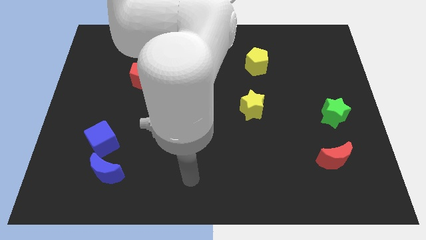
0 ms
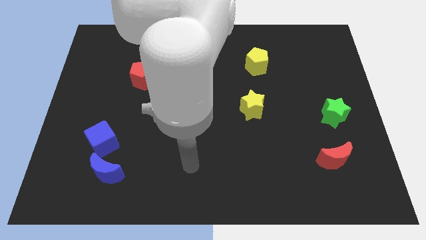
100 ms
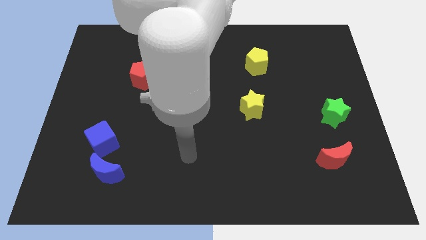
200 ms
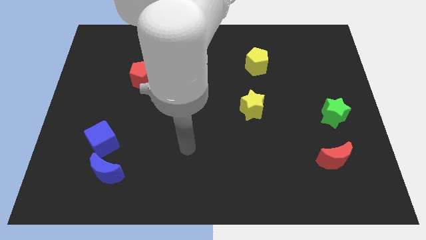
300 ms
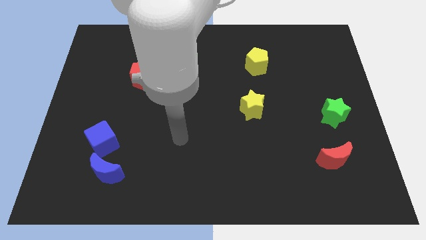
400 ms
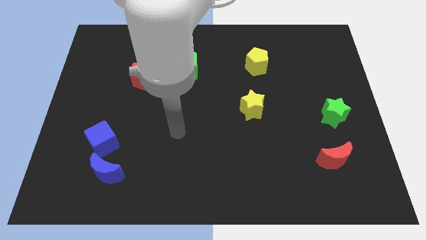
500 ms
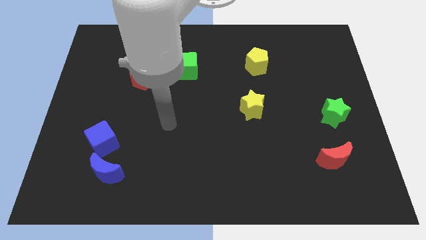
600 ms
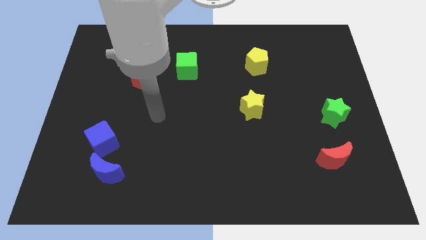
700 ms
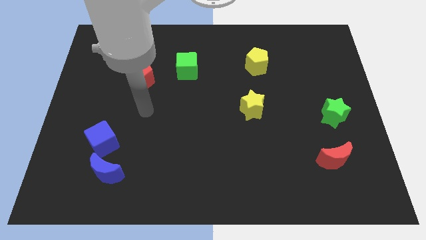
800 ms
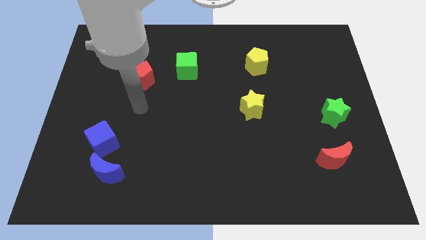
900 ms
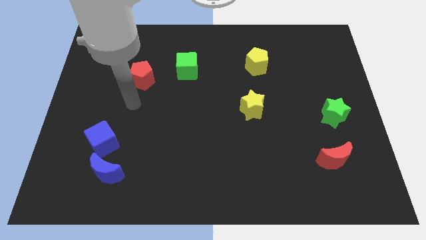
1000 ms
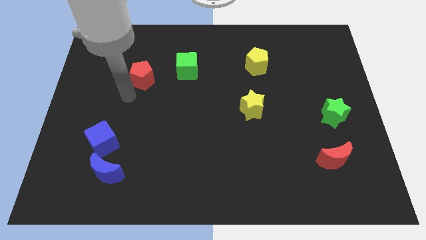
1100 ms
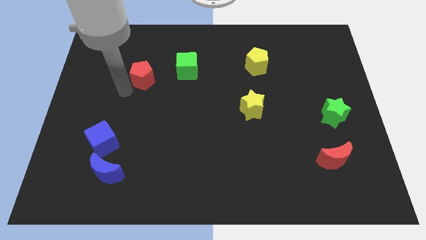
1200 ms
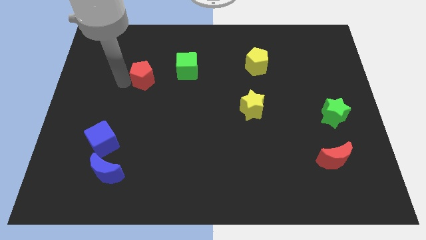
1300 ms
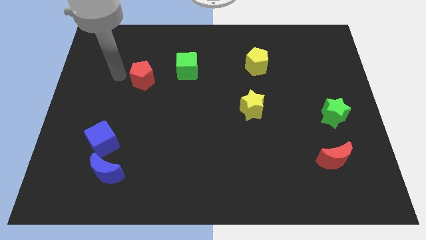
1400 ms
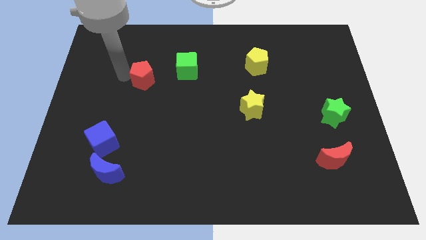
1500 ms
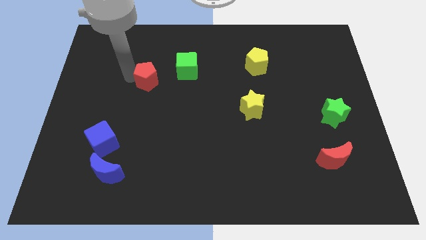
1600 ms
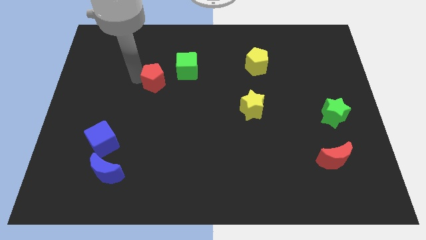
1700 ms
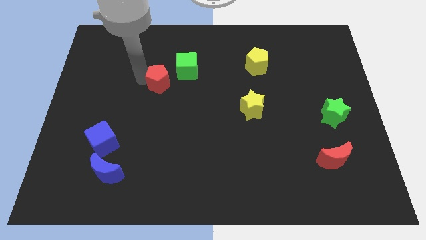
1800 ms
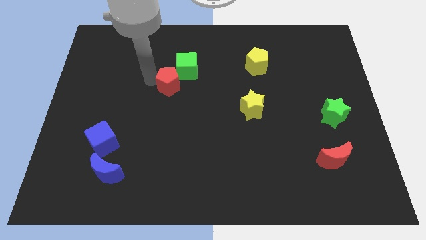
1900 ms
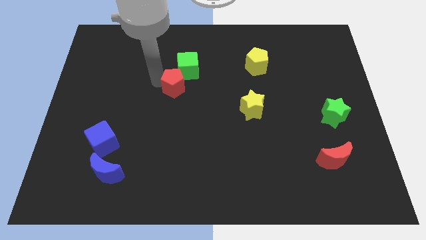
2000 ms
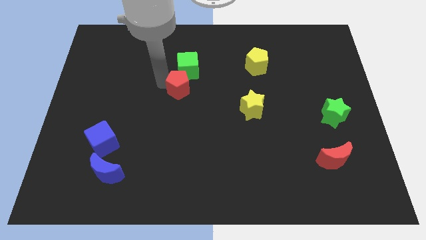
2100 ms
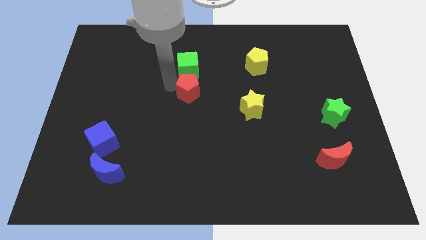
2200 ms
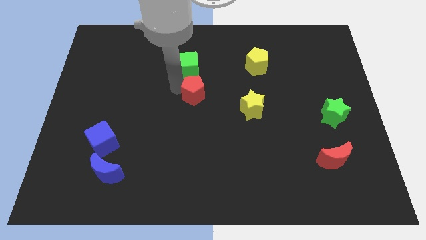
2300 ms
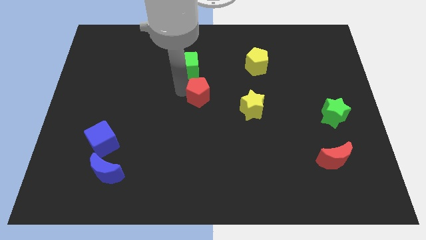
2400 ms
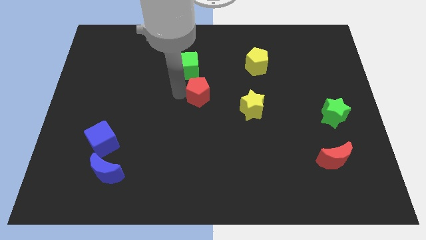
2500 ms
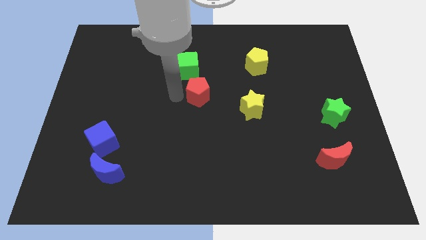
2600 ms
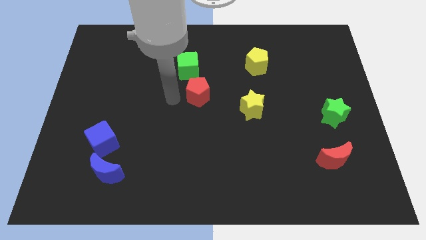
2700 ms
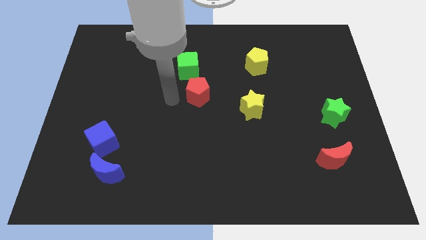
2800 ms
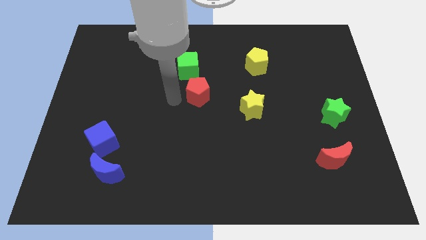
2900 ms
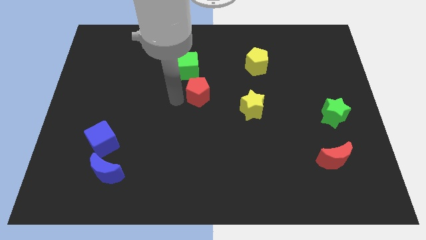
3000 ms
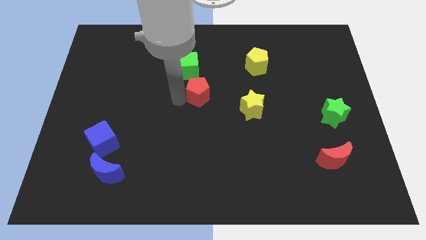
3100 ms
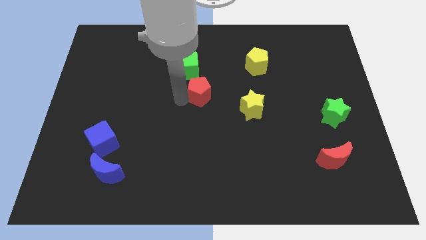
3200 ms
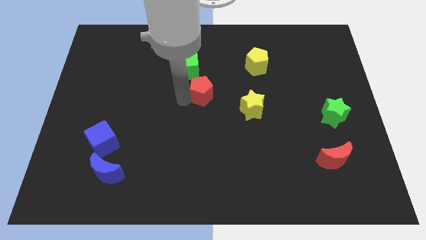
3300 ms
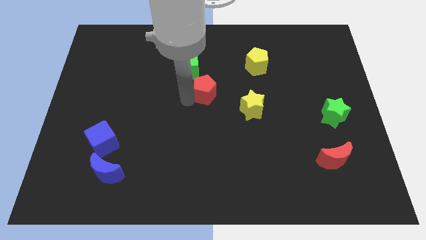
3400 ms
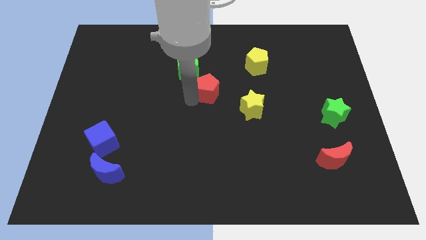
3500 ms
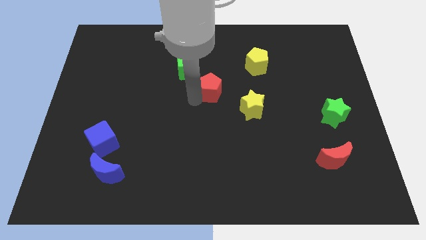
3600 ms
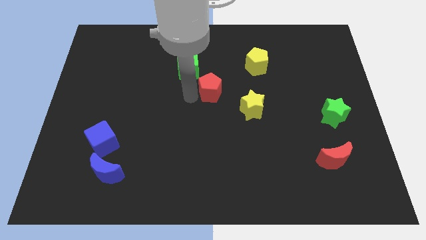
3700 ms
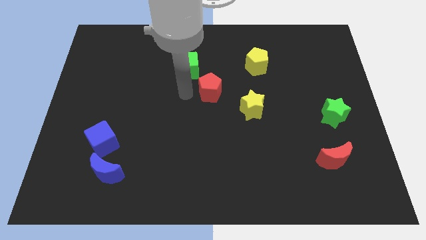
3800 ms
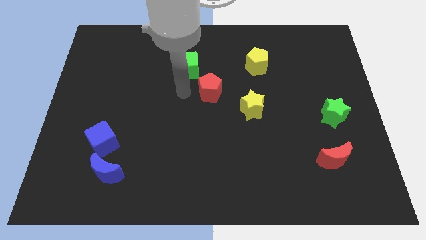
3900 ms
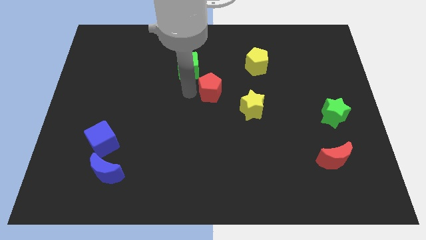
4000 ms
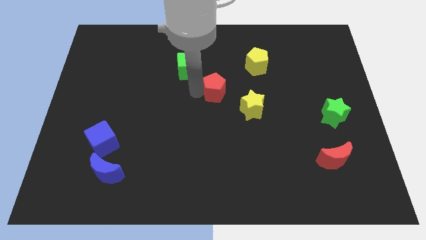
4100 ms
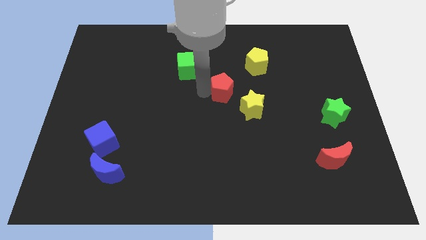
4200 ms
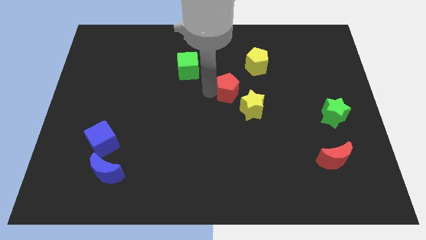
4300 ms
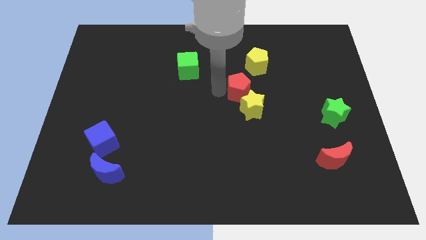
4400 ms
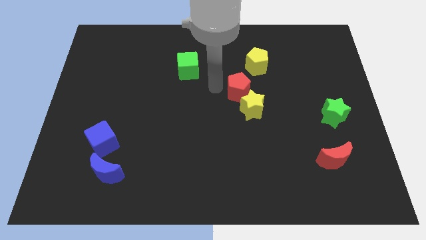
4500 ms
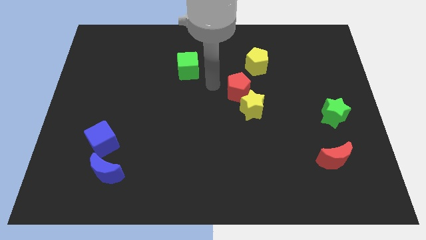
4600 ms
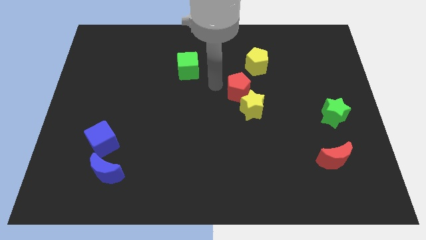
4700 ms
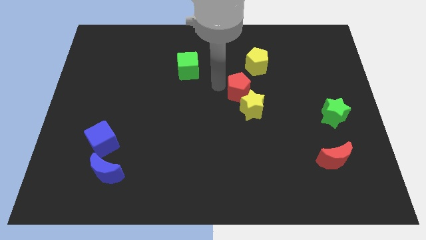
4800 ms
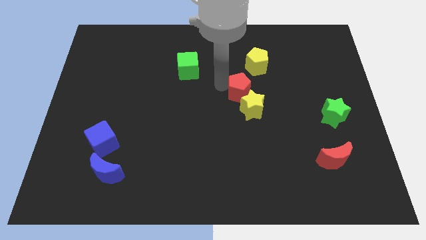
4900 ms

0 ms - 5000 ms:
push the red pentagon below the yellow pentagon

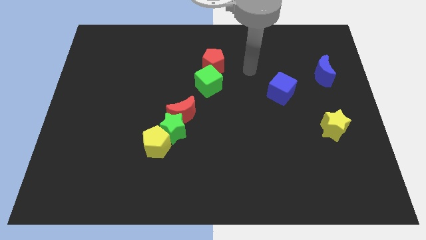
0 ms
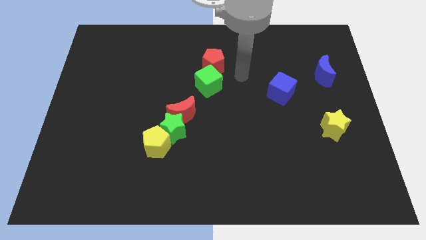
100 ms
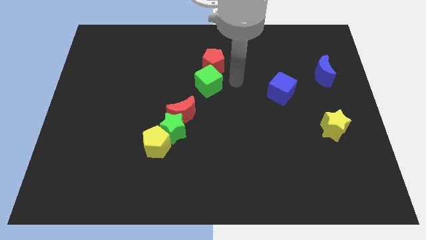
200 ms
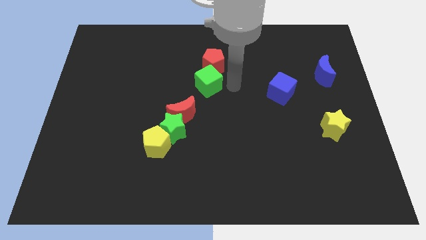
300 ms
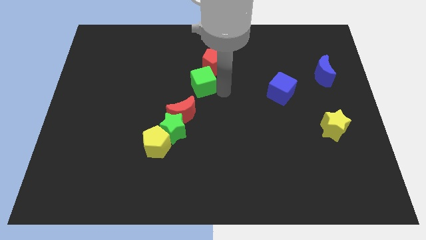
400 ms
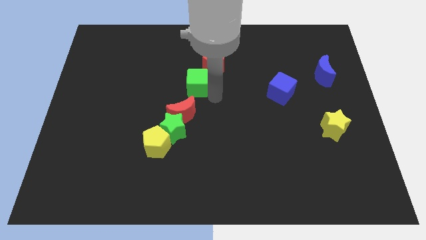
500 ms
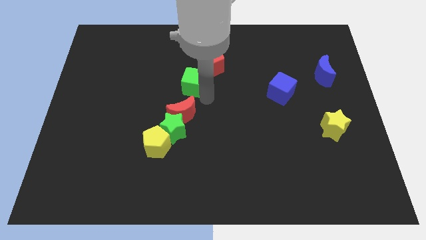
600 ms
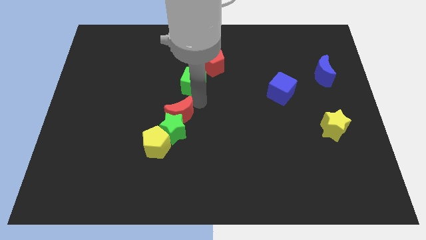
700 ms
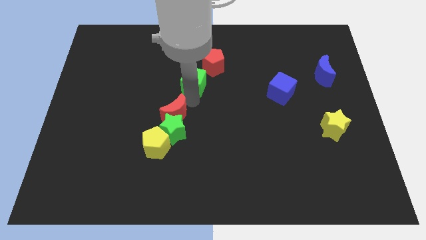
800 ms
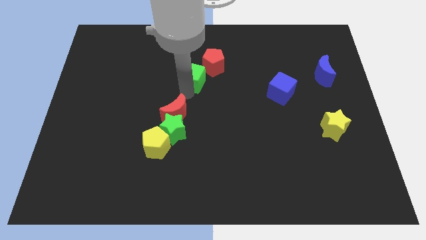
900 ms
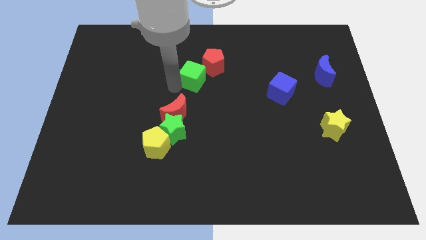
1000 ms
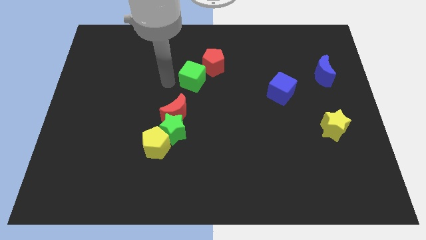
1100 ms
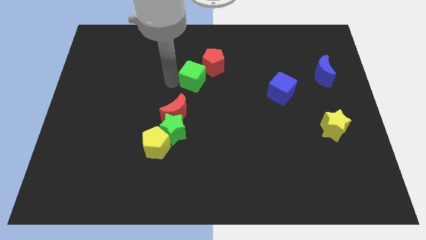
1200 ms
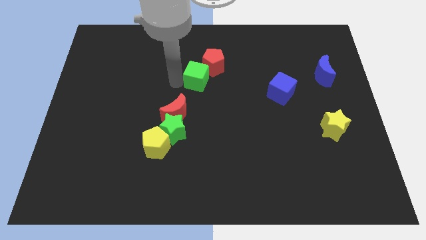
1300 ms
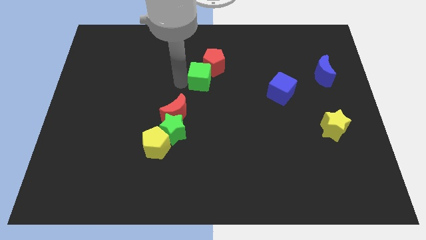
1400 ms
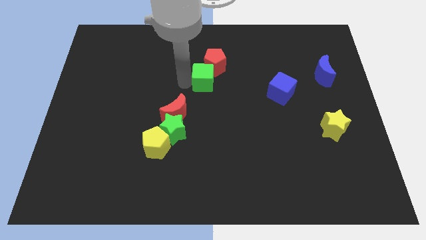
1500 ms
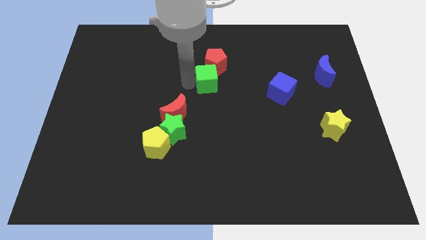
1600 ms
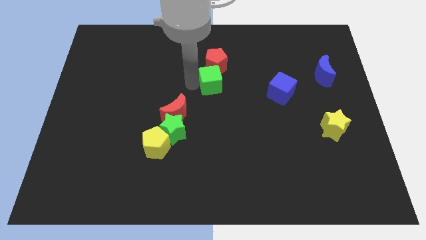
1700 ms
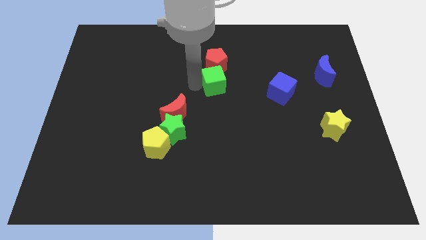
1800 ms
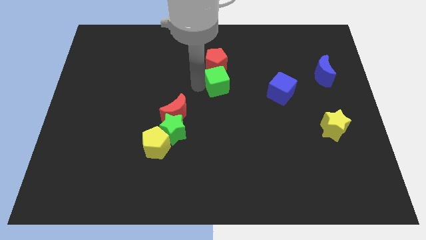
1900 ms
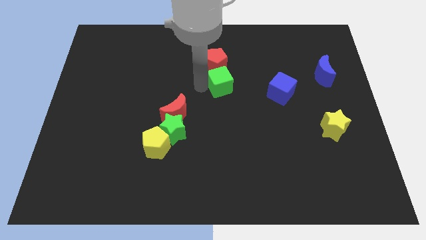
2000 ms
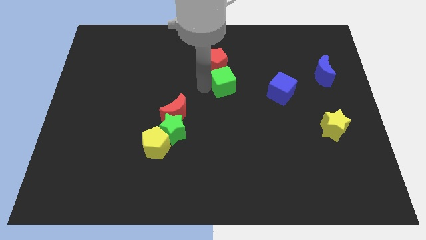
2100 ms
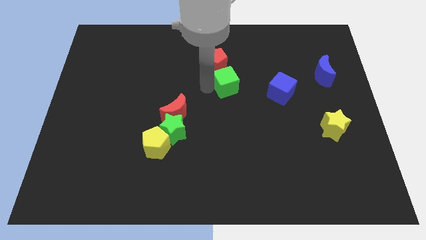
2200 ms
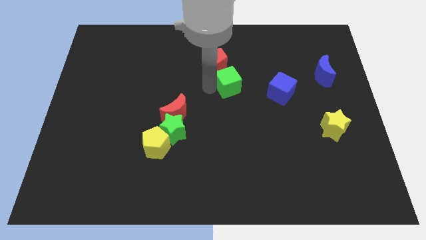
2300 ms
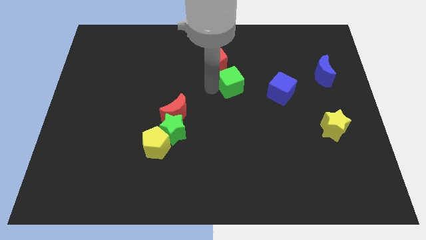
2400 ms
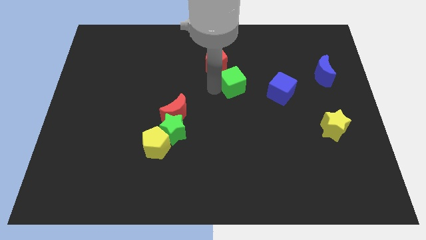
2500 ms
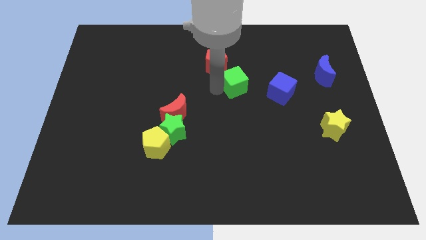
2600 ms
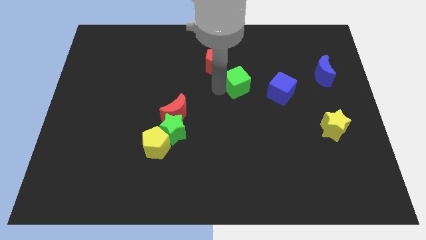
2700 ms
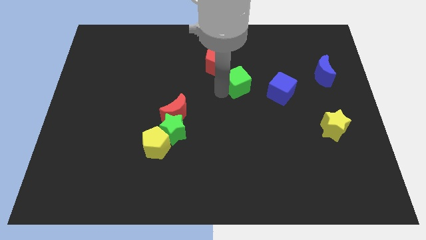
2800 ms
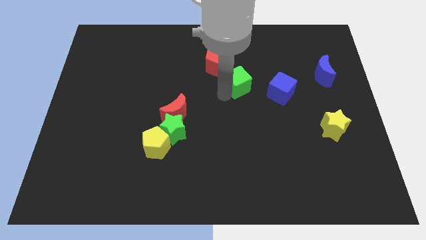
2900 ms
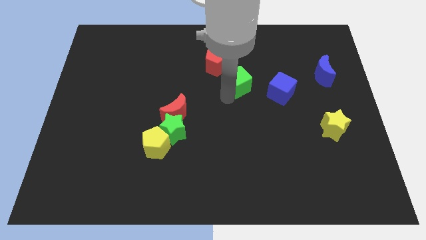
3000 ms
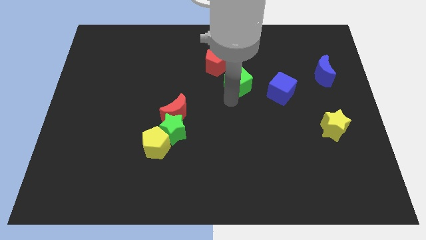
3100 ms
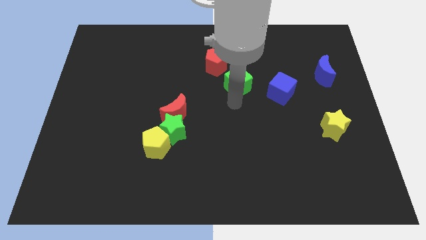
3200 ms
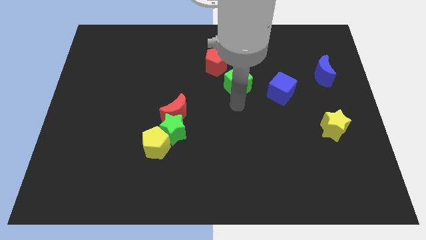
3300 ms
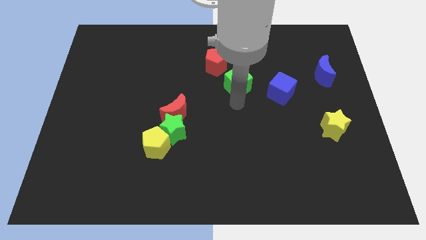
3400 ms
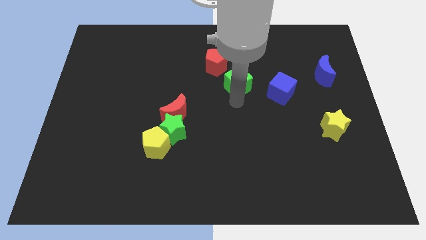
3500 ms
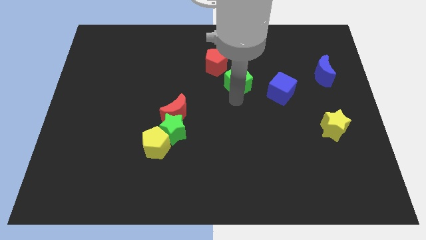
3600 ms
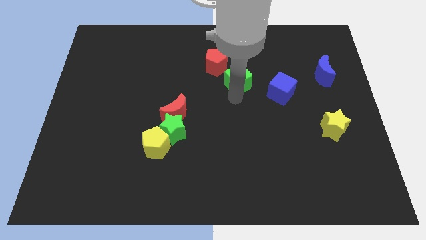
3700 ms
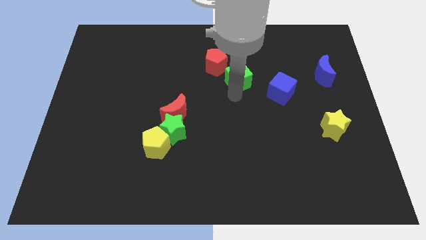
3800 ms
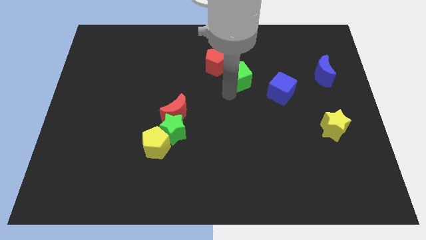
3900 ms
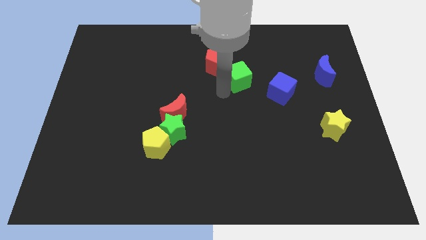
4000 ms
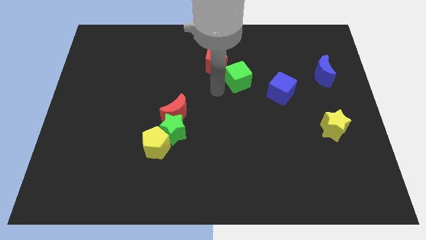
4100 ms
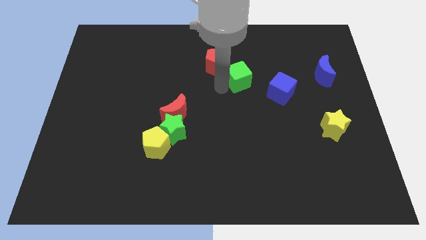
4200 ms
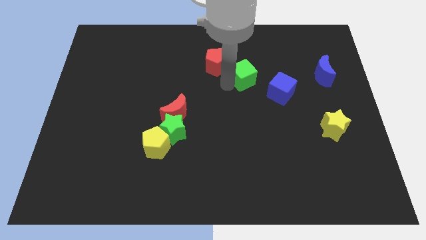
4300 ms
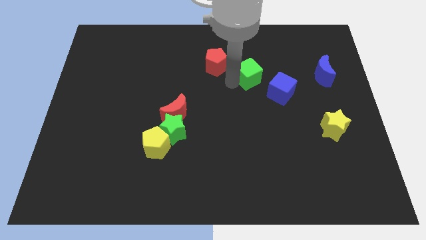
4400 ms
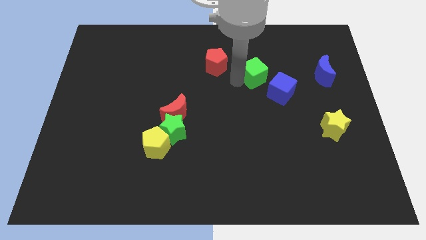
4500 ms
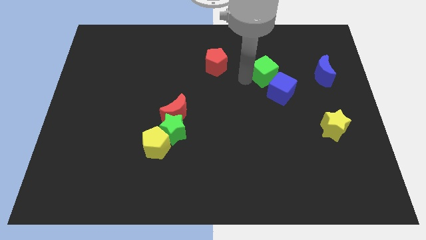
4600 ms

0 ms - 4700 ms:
put the green cube above the blue cube
